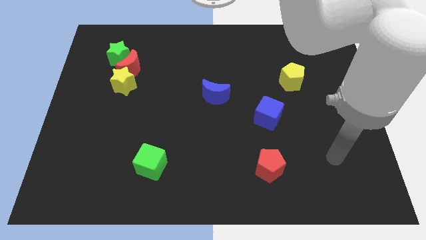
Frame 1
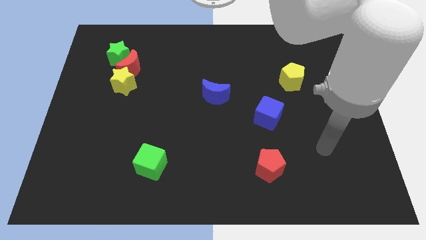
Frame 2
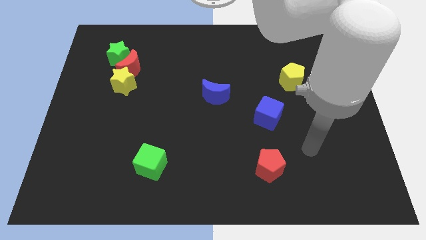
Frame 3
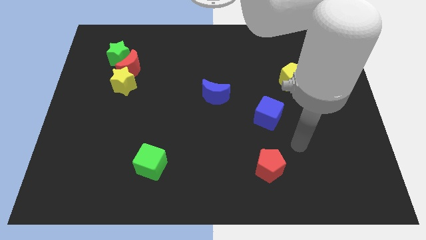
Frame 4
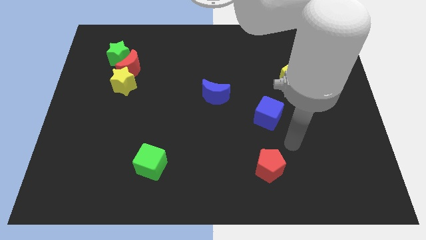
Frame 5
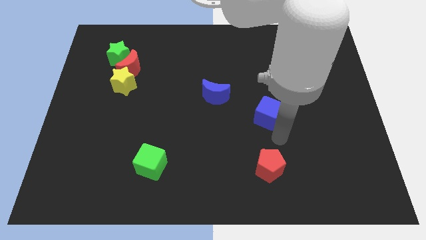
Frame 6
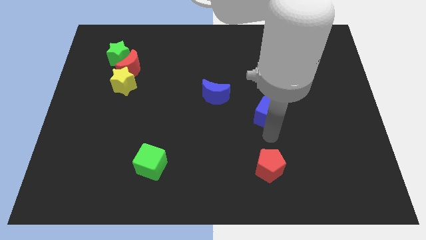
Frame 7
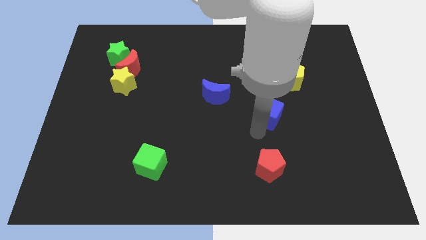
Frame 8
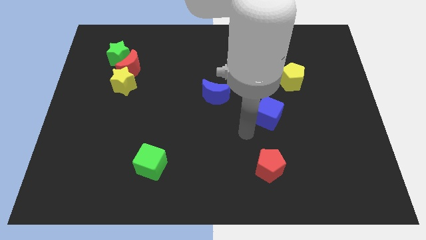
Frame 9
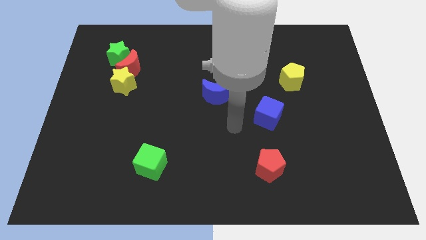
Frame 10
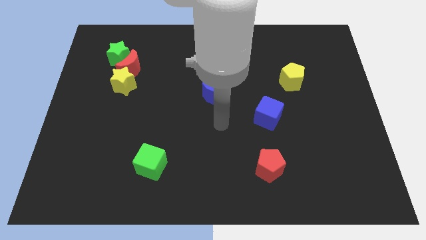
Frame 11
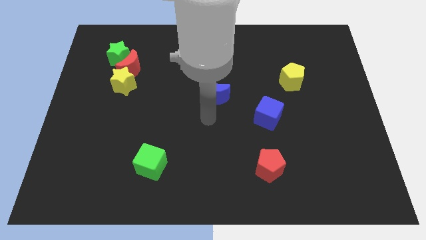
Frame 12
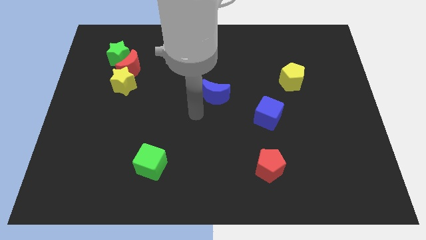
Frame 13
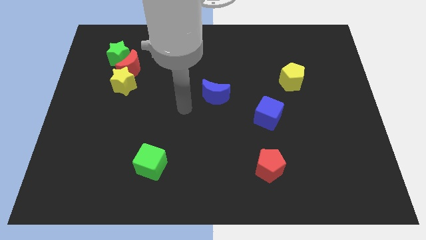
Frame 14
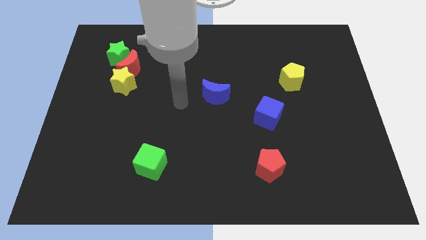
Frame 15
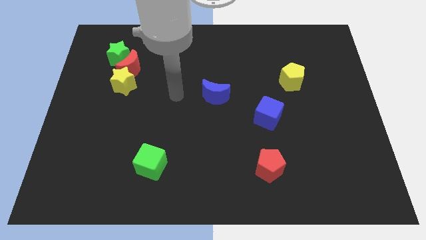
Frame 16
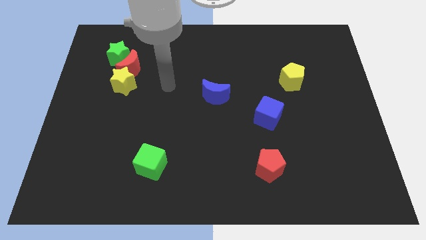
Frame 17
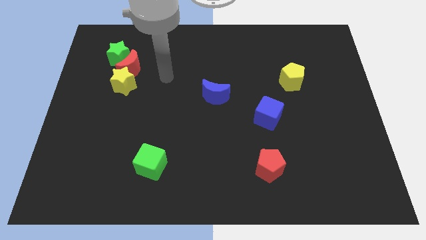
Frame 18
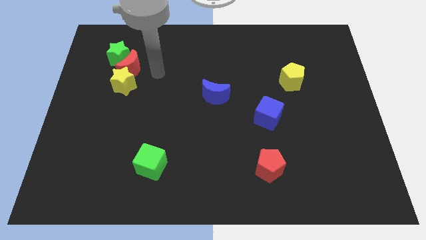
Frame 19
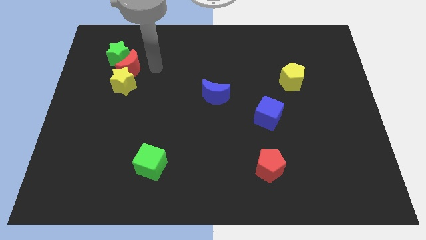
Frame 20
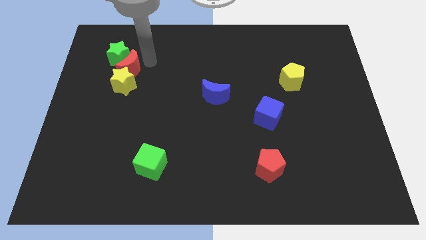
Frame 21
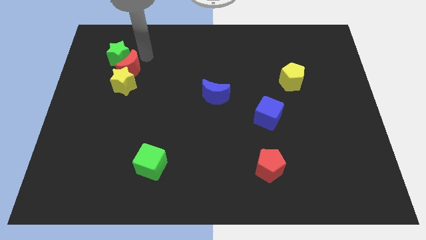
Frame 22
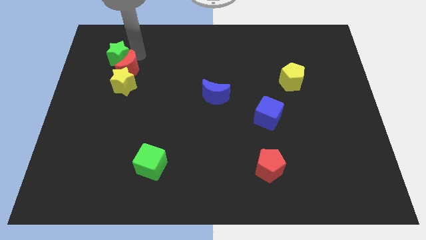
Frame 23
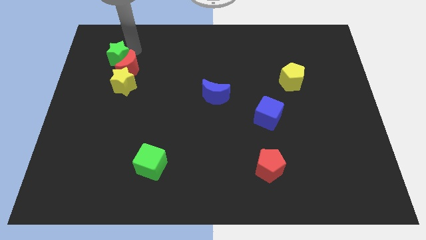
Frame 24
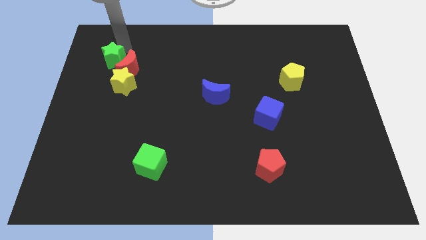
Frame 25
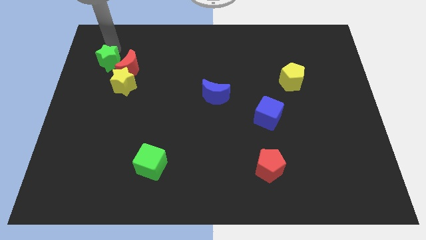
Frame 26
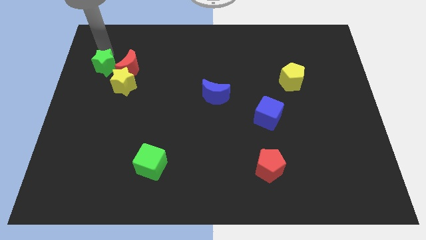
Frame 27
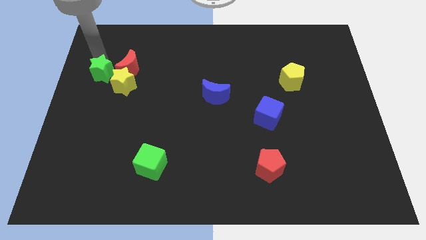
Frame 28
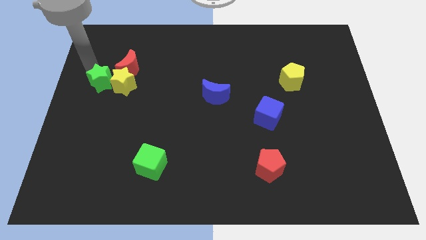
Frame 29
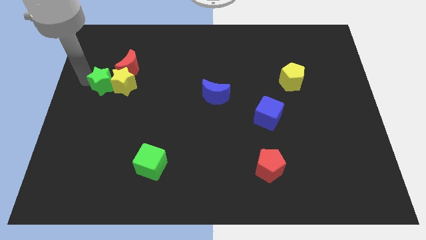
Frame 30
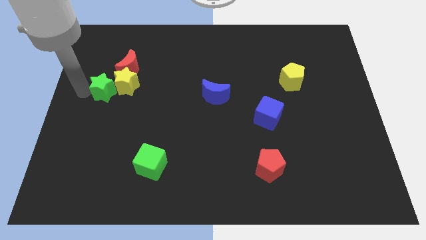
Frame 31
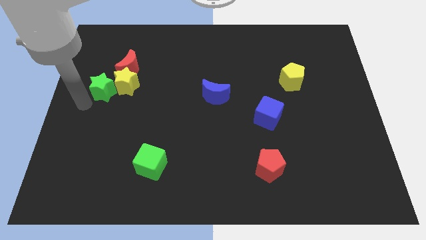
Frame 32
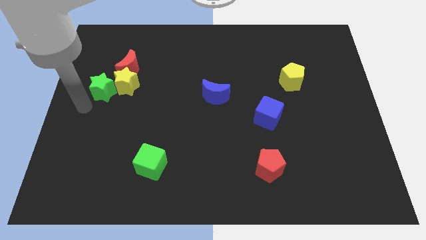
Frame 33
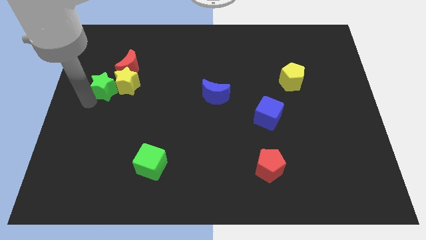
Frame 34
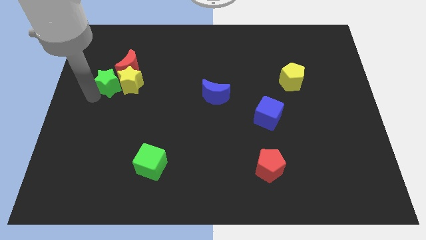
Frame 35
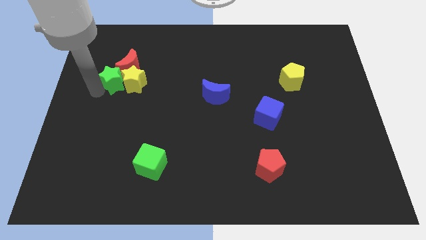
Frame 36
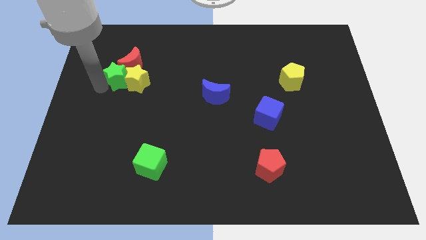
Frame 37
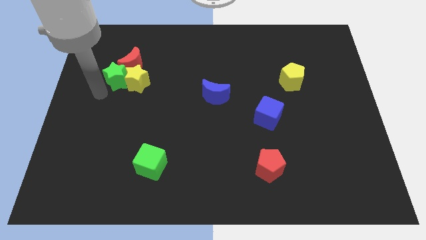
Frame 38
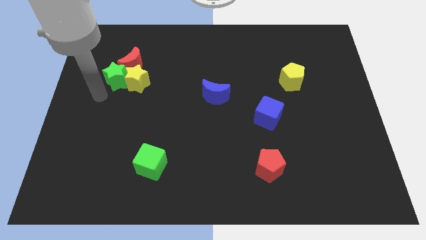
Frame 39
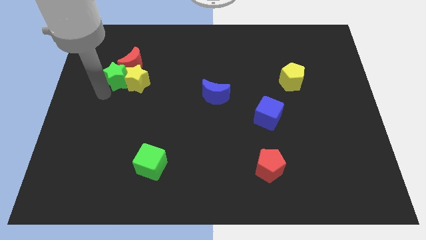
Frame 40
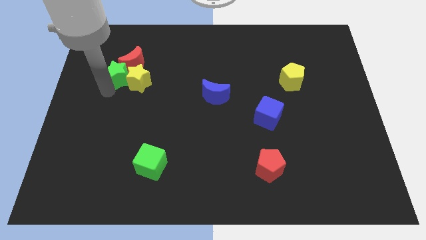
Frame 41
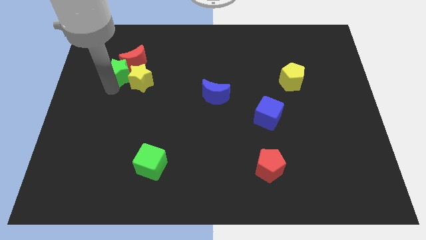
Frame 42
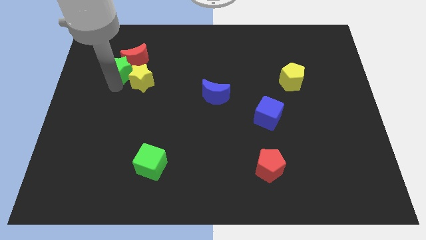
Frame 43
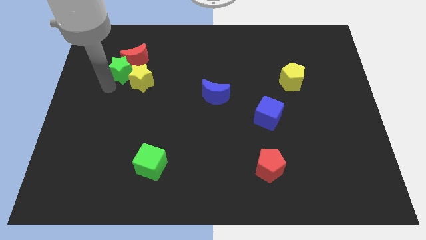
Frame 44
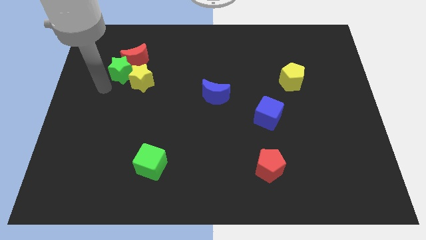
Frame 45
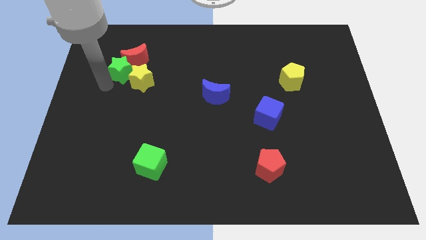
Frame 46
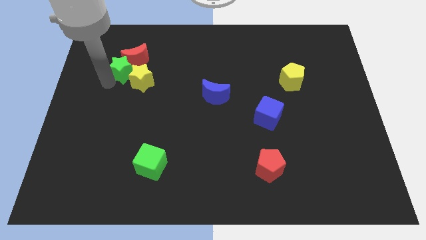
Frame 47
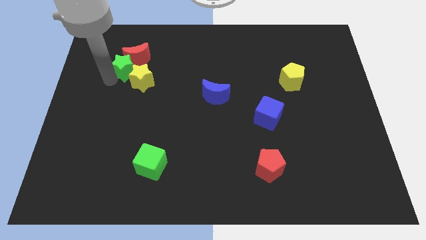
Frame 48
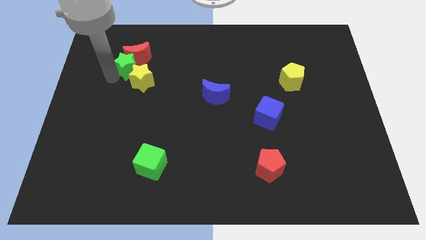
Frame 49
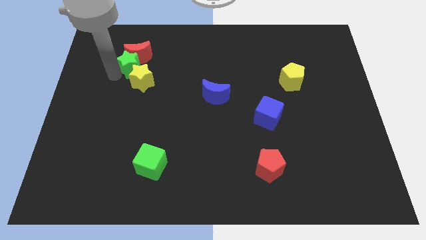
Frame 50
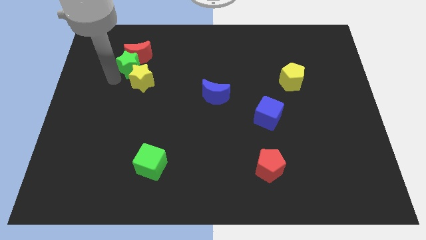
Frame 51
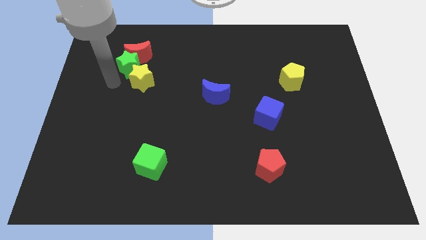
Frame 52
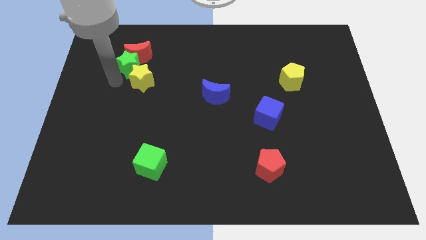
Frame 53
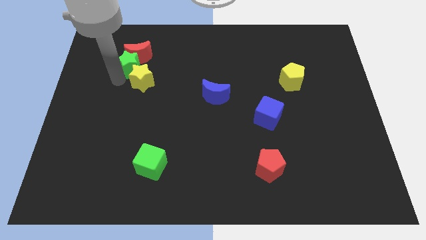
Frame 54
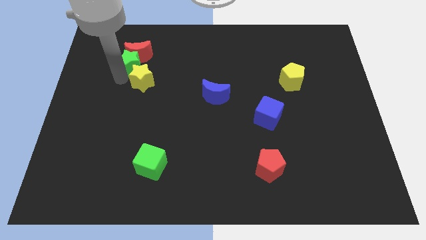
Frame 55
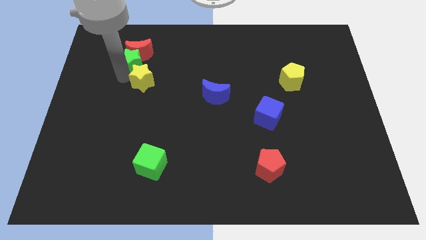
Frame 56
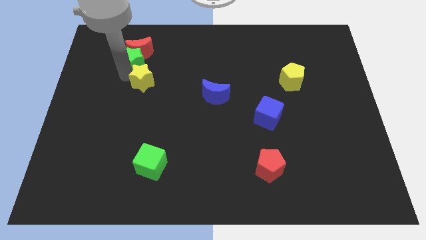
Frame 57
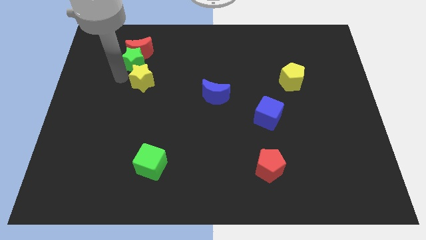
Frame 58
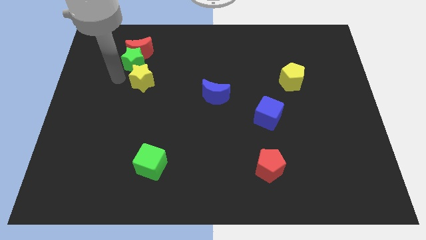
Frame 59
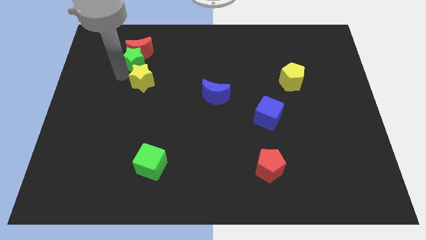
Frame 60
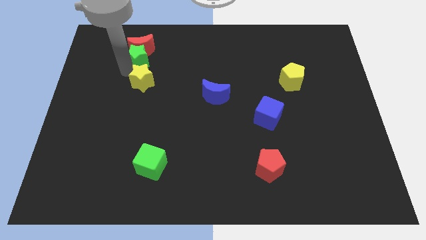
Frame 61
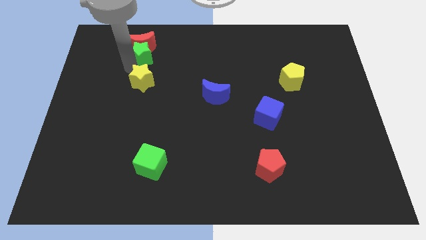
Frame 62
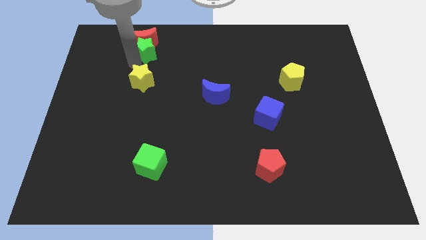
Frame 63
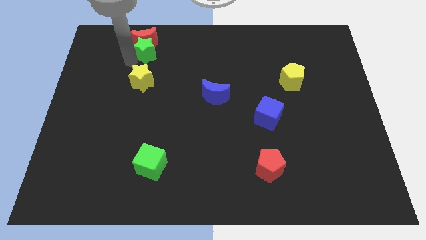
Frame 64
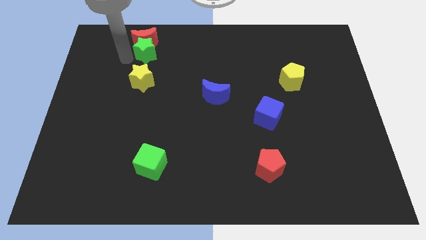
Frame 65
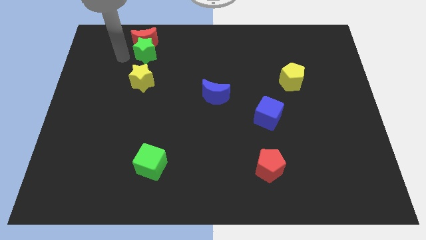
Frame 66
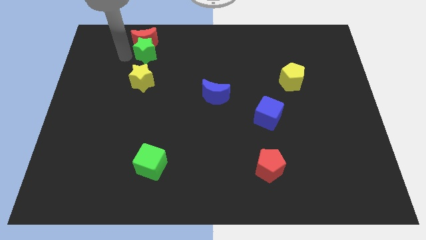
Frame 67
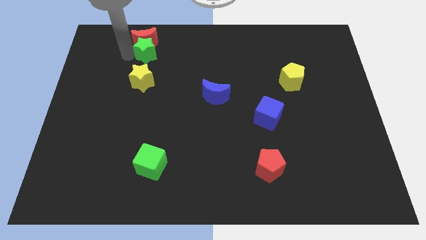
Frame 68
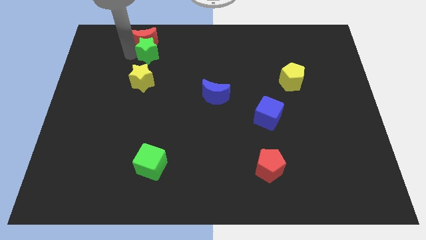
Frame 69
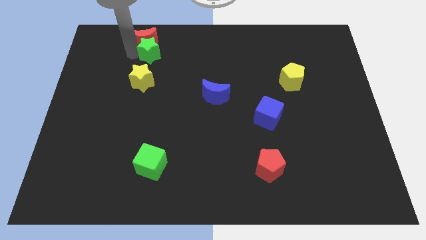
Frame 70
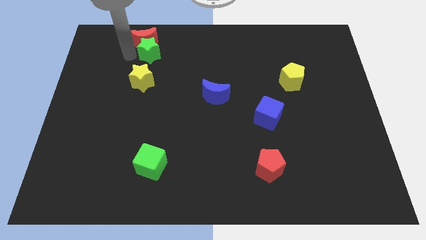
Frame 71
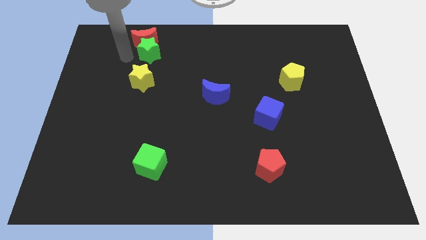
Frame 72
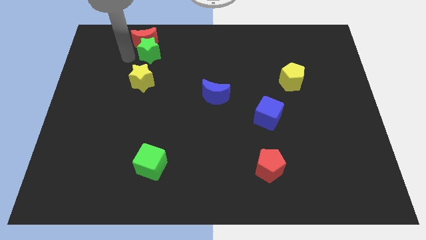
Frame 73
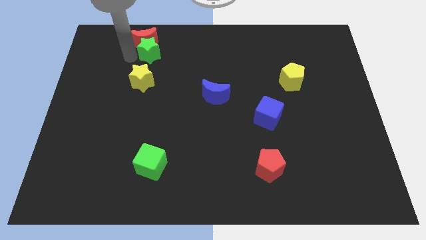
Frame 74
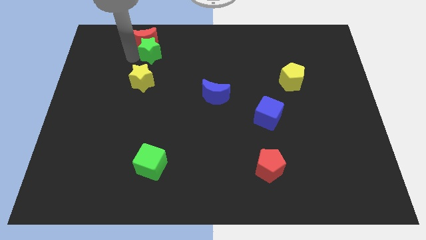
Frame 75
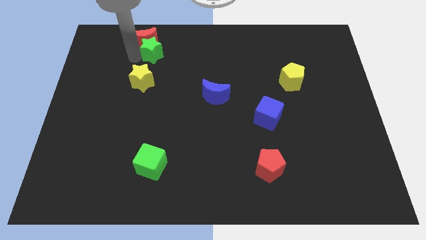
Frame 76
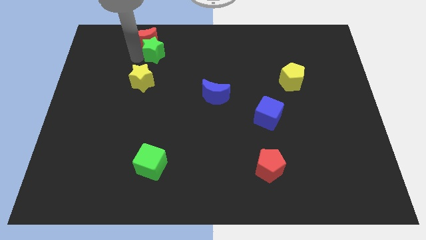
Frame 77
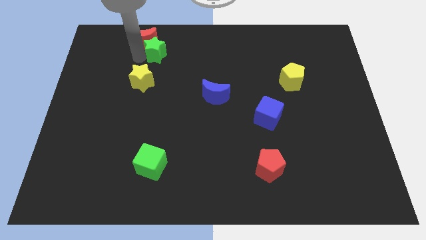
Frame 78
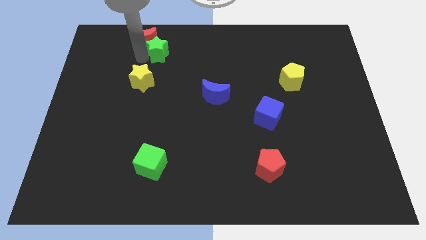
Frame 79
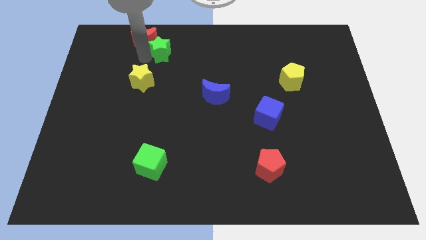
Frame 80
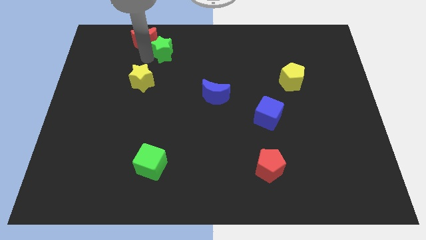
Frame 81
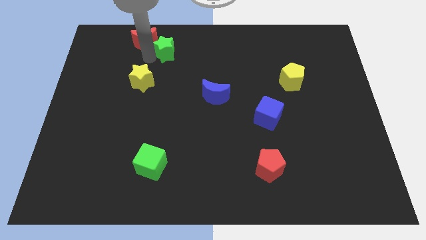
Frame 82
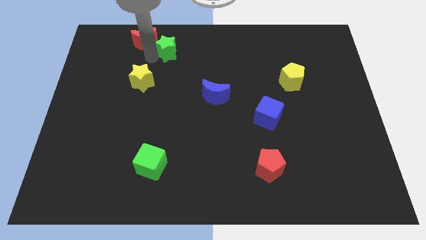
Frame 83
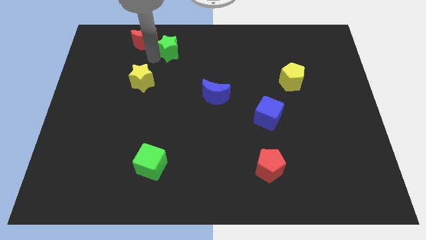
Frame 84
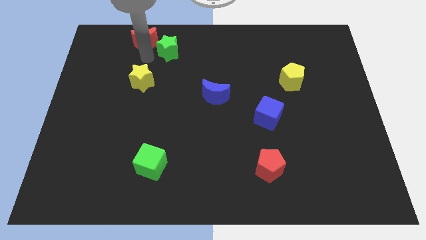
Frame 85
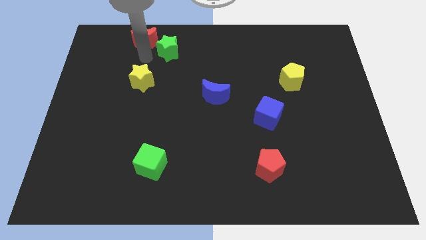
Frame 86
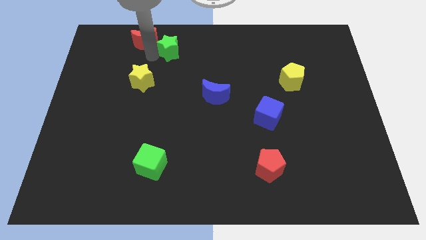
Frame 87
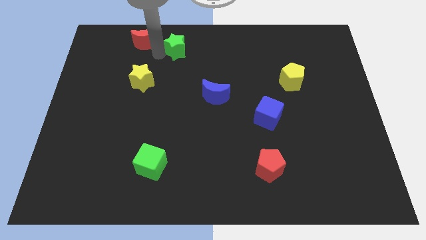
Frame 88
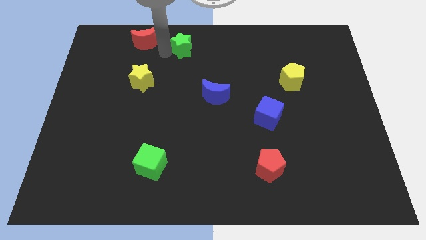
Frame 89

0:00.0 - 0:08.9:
move the green star to the top
